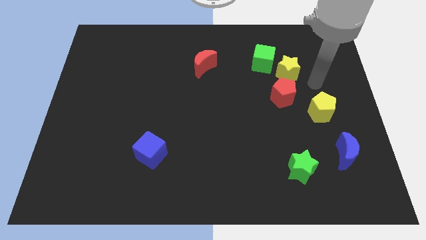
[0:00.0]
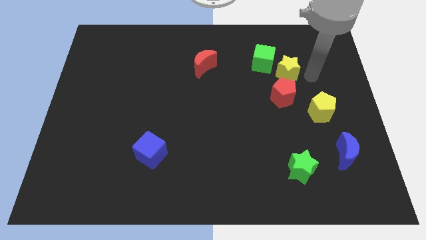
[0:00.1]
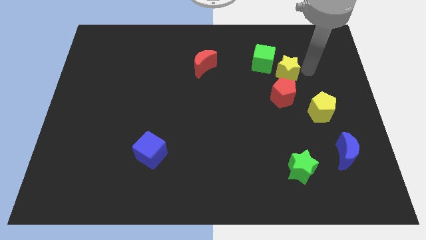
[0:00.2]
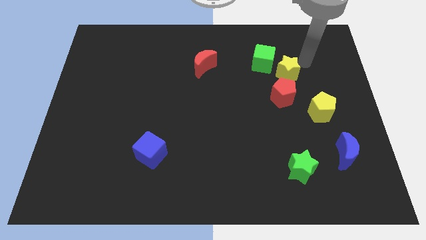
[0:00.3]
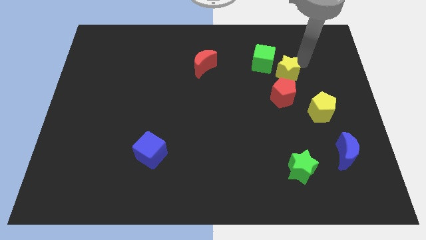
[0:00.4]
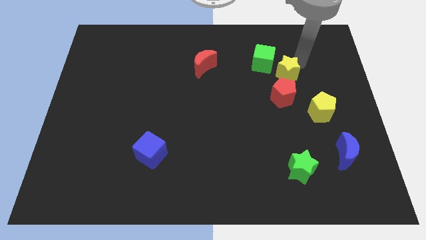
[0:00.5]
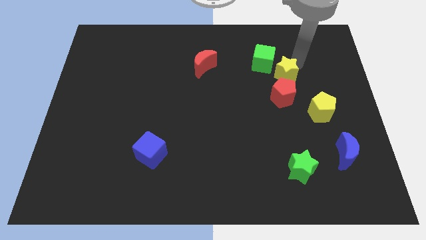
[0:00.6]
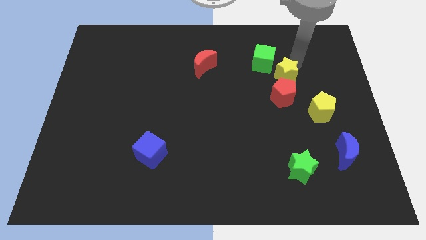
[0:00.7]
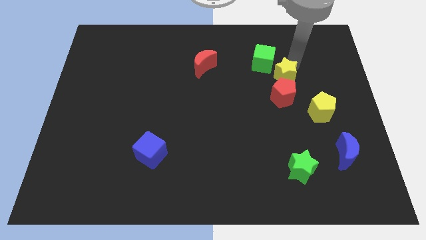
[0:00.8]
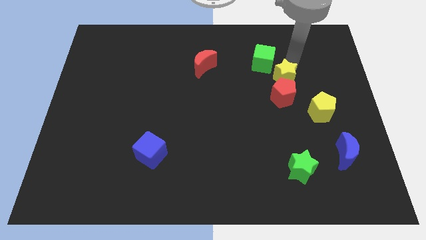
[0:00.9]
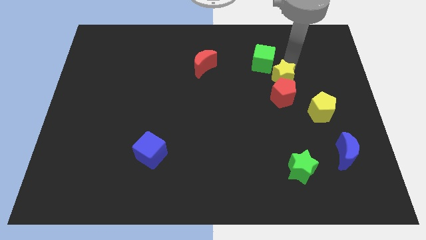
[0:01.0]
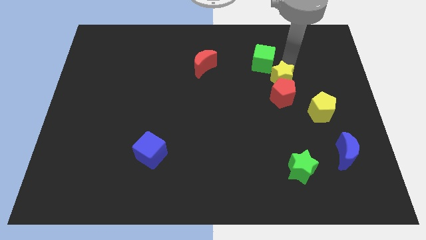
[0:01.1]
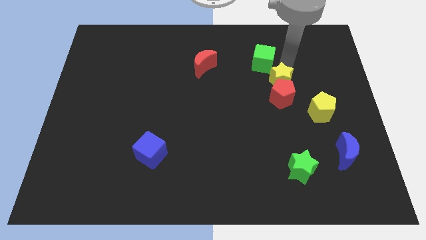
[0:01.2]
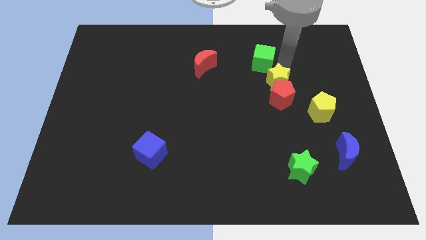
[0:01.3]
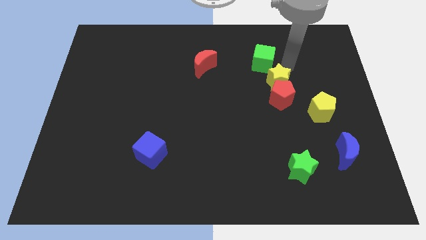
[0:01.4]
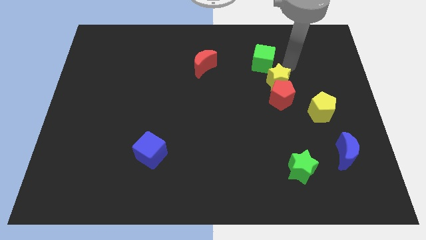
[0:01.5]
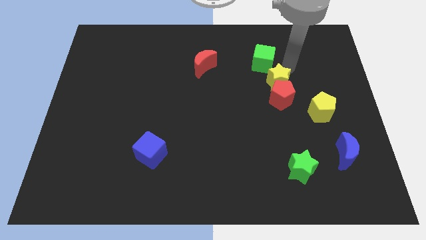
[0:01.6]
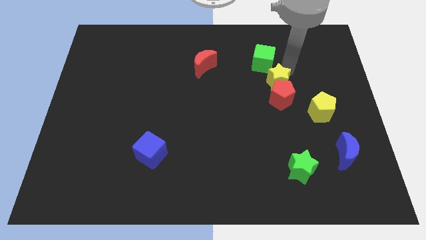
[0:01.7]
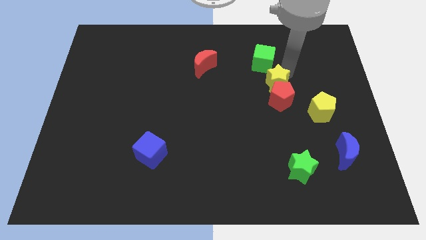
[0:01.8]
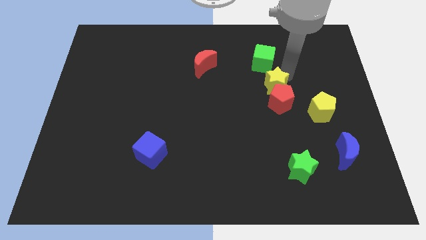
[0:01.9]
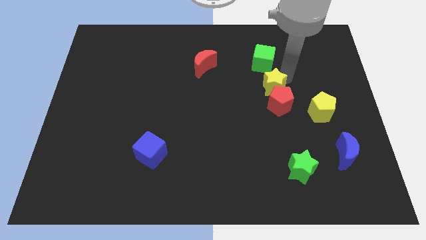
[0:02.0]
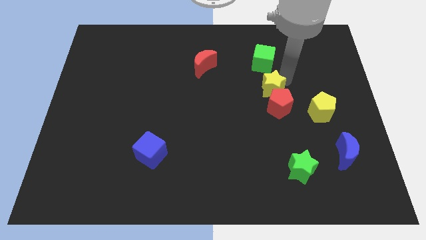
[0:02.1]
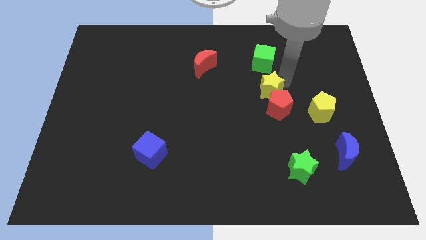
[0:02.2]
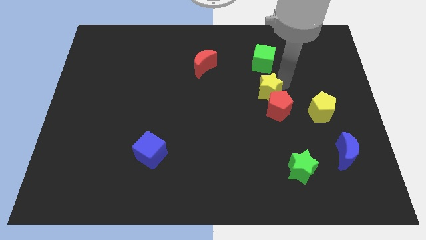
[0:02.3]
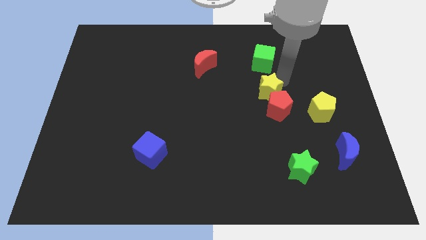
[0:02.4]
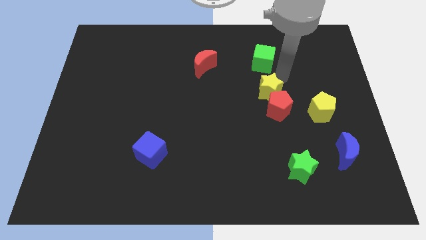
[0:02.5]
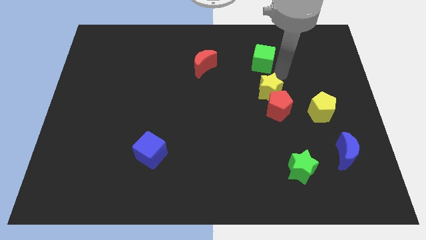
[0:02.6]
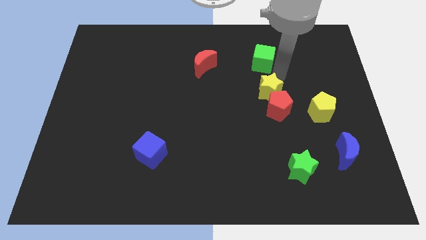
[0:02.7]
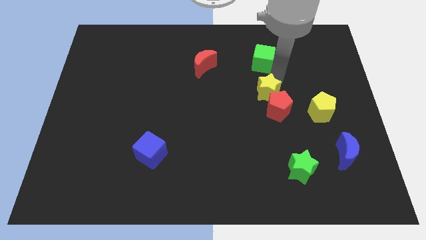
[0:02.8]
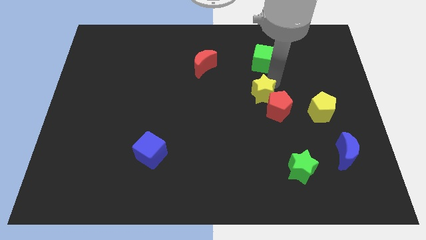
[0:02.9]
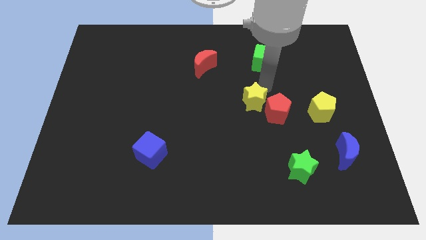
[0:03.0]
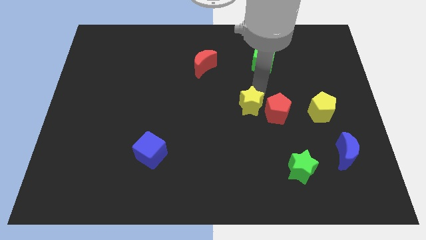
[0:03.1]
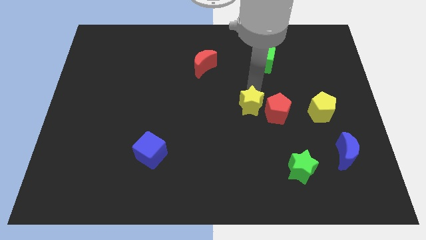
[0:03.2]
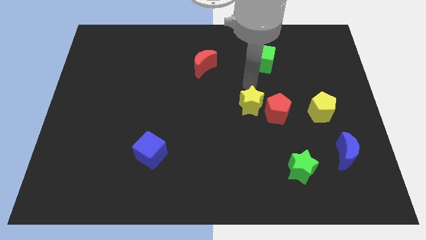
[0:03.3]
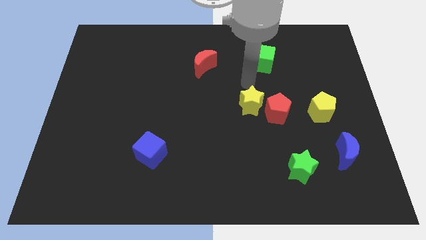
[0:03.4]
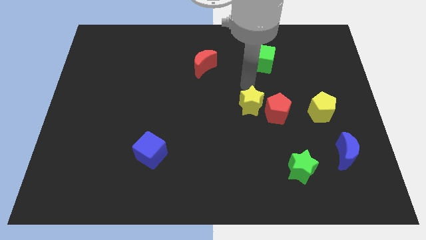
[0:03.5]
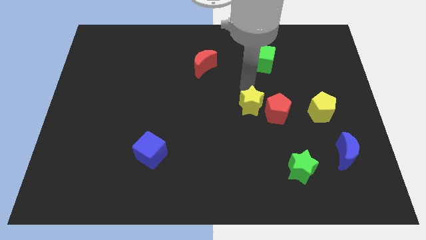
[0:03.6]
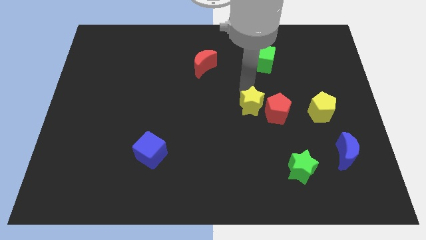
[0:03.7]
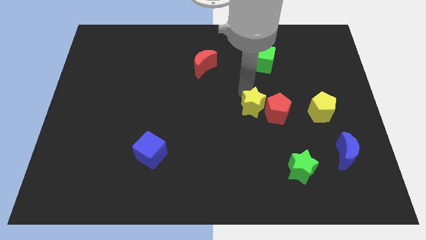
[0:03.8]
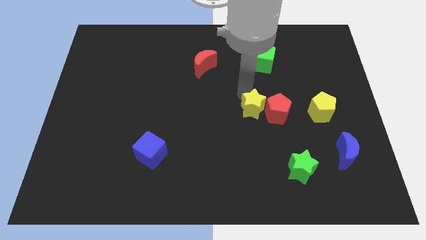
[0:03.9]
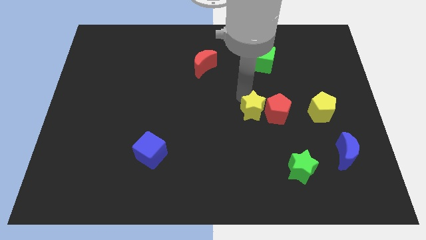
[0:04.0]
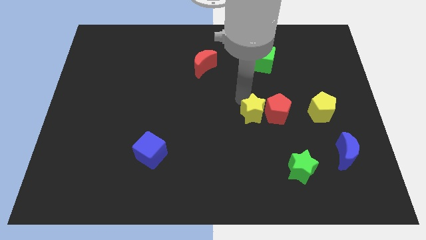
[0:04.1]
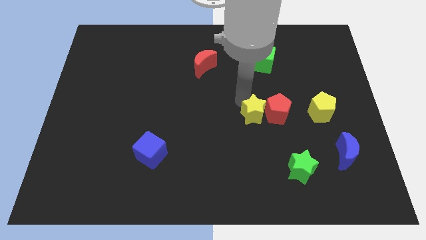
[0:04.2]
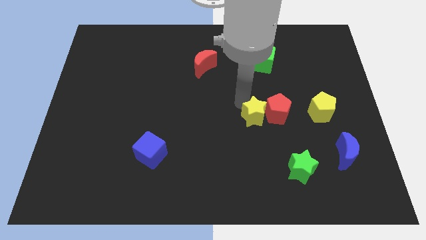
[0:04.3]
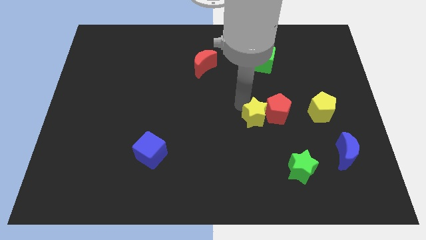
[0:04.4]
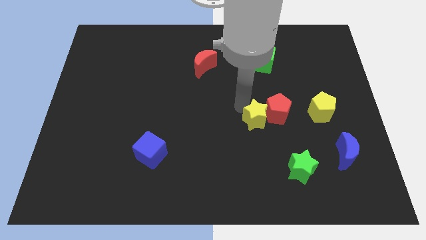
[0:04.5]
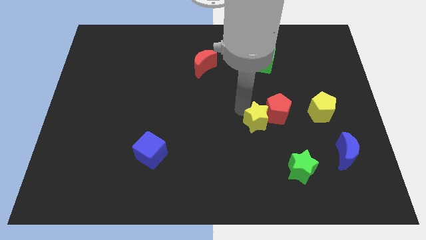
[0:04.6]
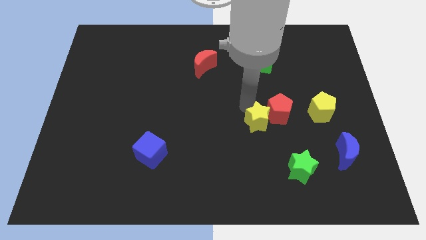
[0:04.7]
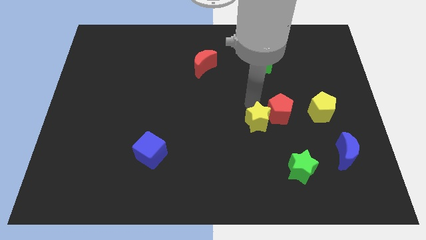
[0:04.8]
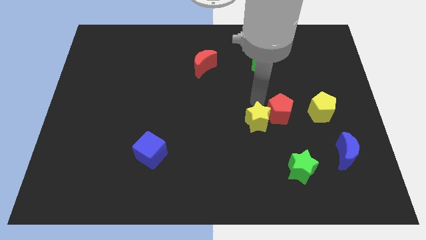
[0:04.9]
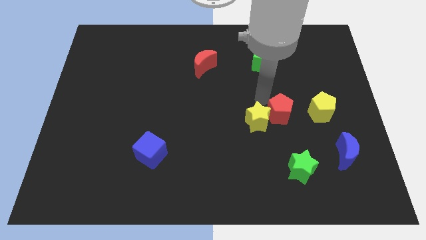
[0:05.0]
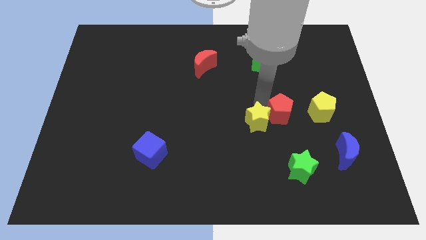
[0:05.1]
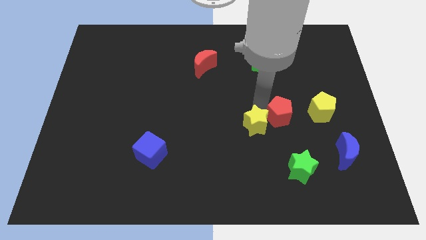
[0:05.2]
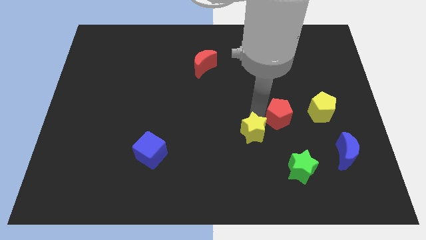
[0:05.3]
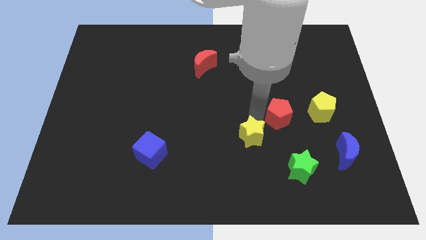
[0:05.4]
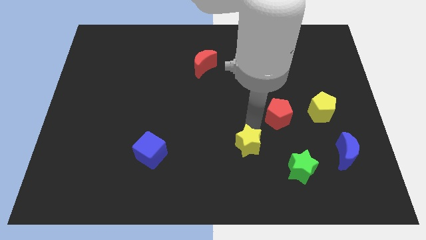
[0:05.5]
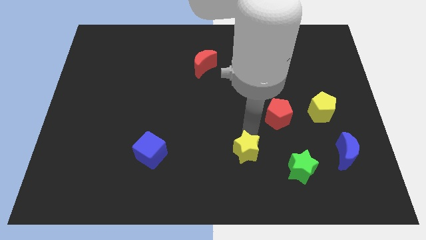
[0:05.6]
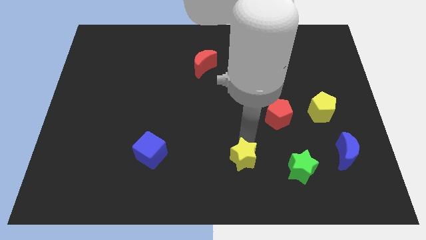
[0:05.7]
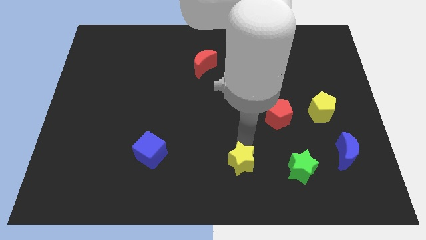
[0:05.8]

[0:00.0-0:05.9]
move the yellow star to the bottom

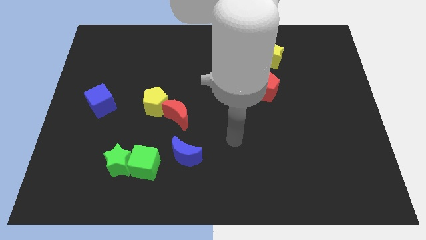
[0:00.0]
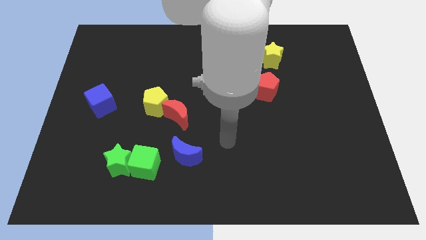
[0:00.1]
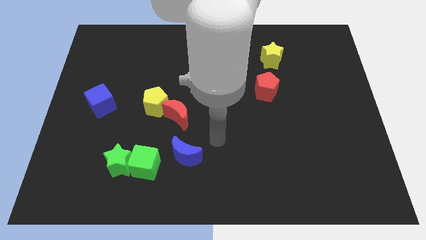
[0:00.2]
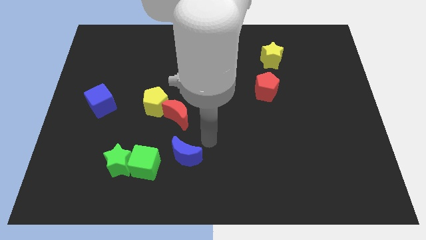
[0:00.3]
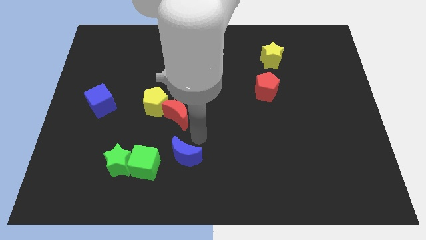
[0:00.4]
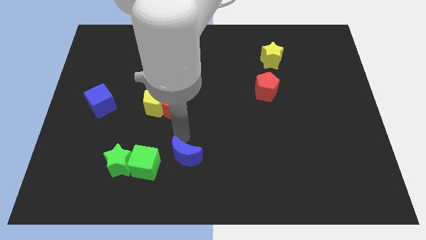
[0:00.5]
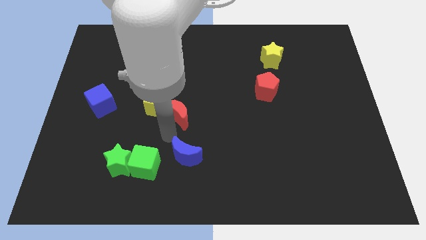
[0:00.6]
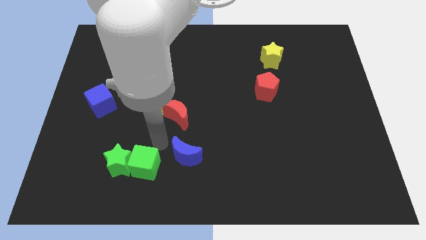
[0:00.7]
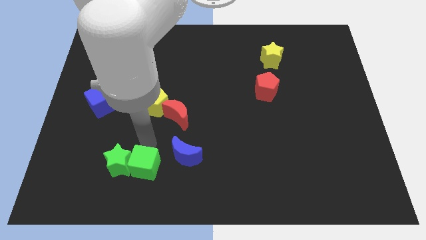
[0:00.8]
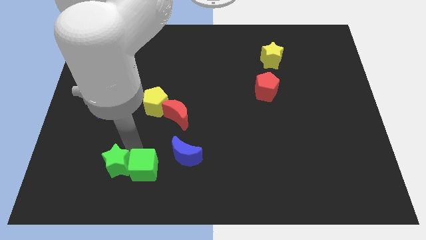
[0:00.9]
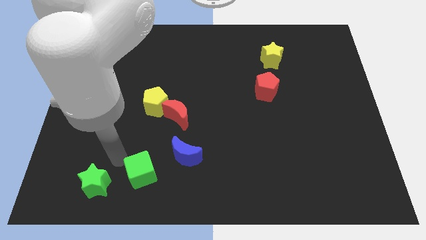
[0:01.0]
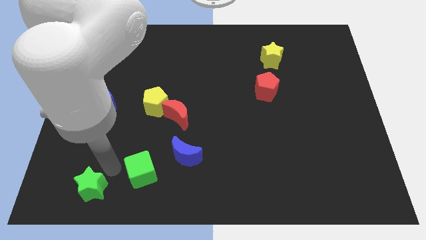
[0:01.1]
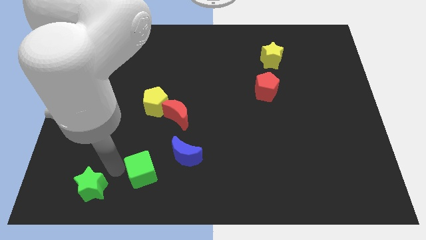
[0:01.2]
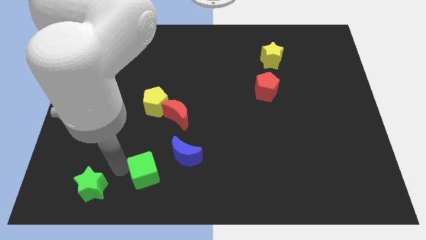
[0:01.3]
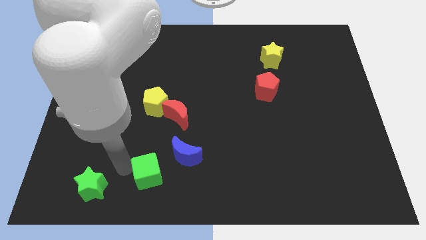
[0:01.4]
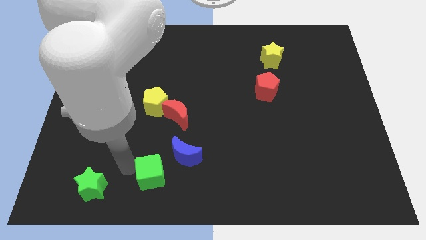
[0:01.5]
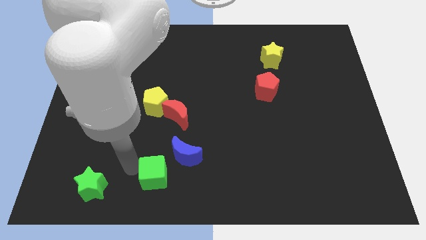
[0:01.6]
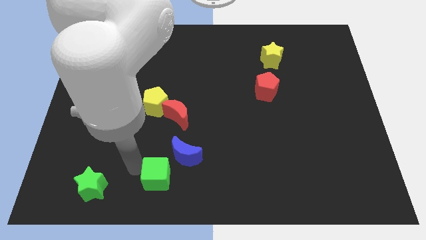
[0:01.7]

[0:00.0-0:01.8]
put the green cube to the bottom side
